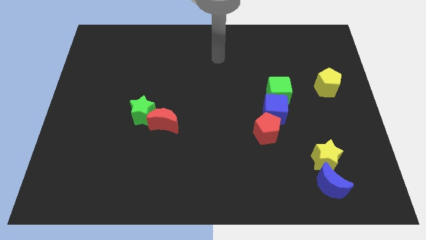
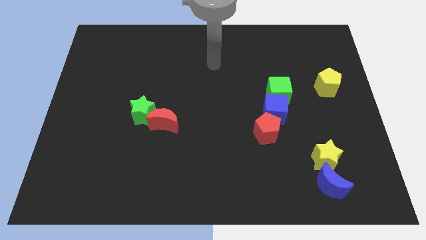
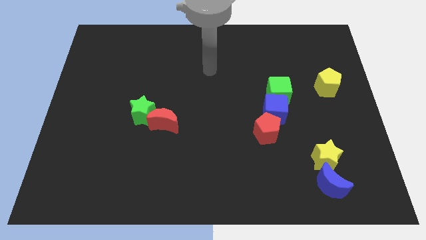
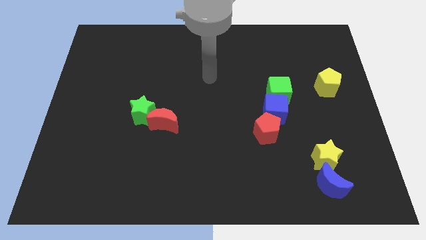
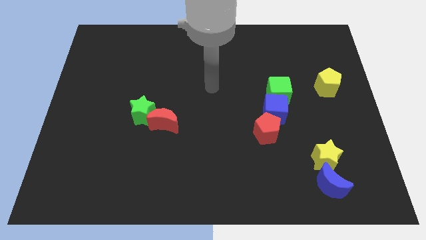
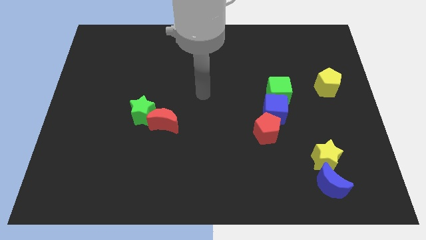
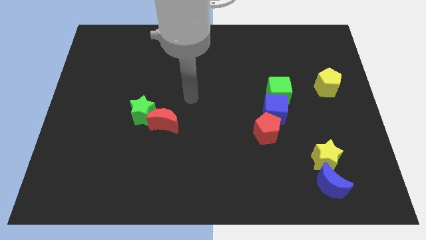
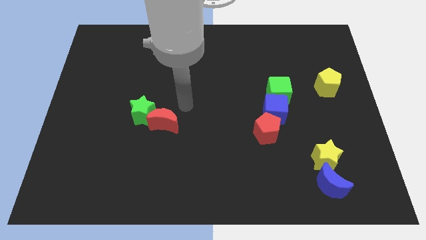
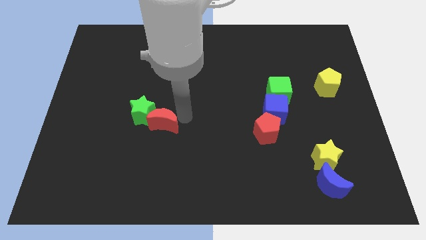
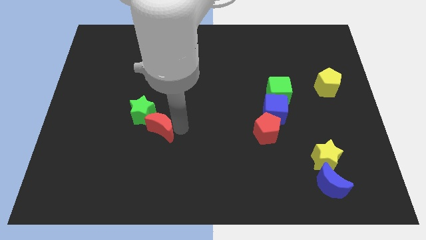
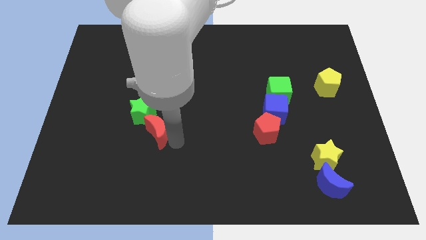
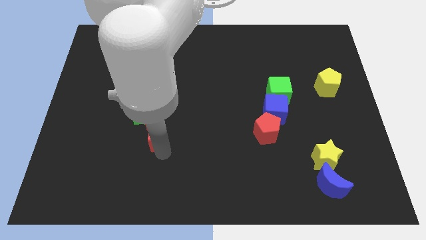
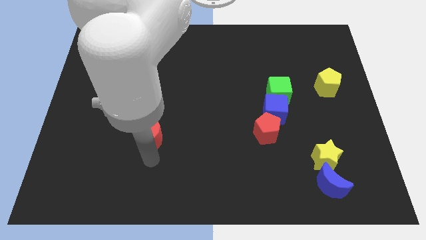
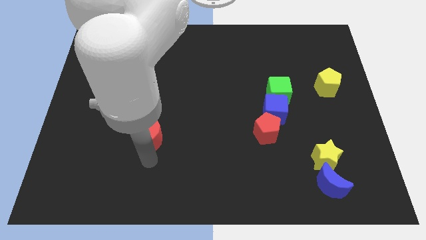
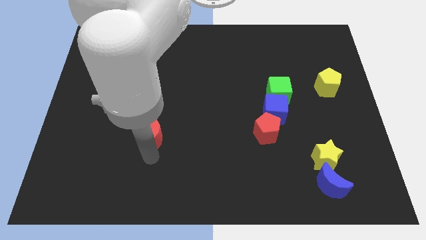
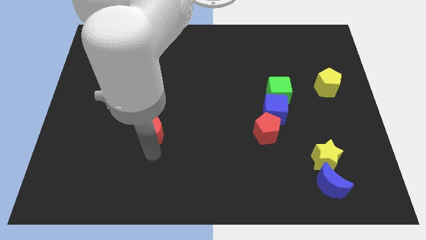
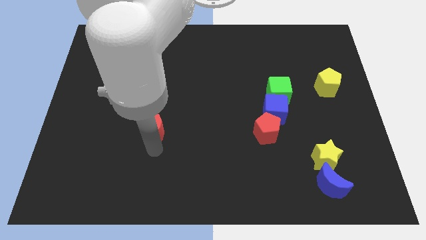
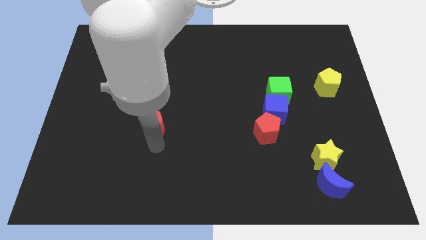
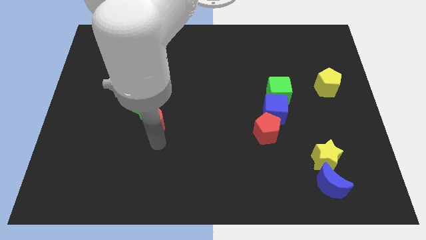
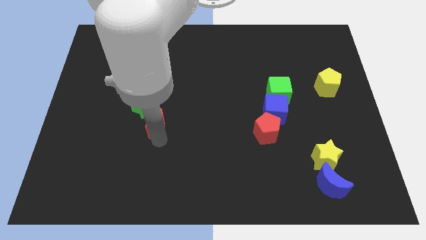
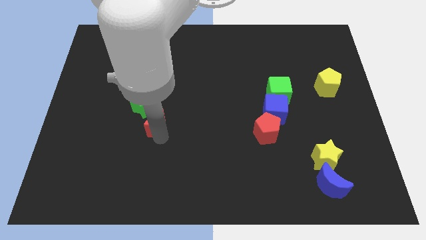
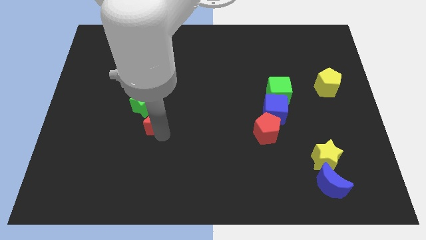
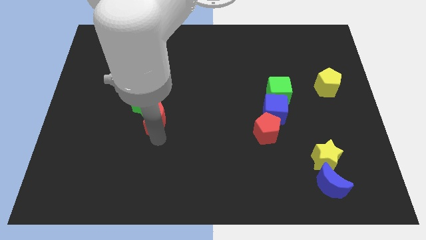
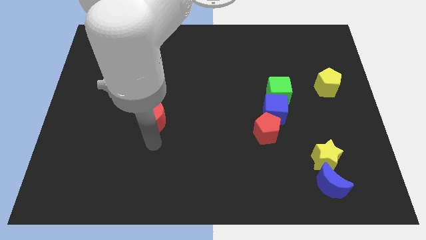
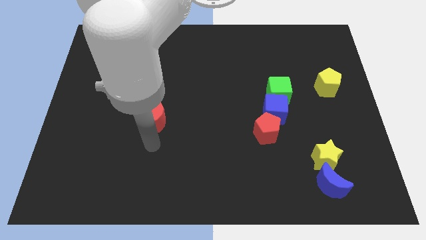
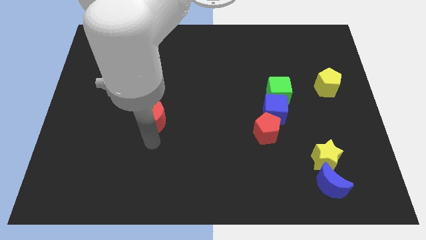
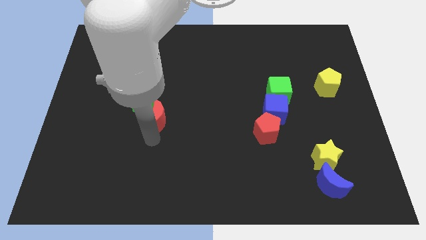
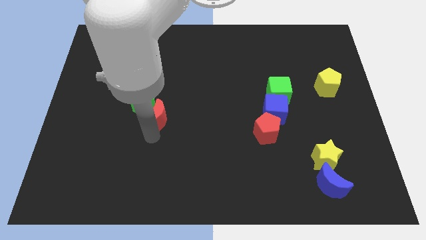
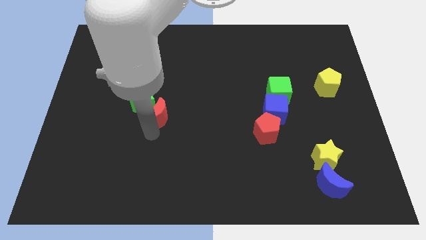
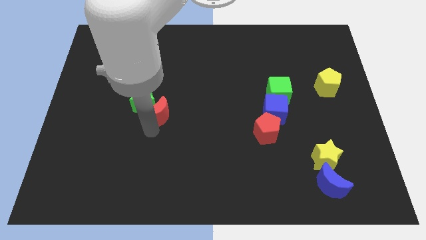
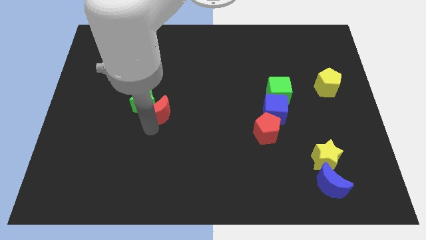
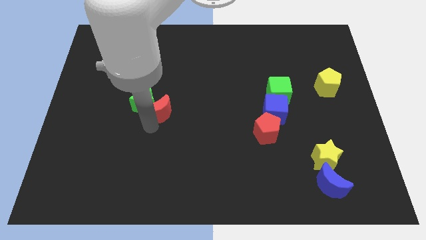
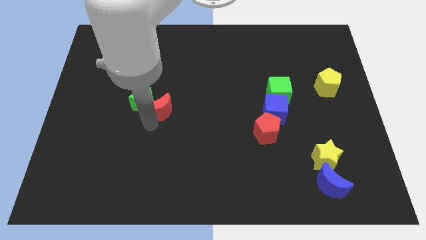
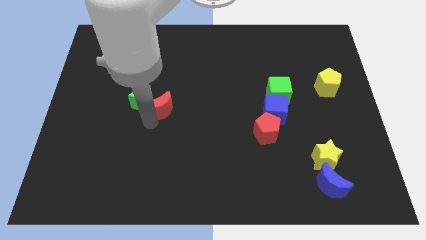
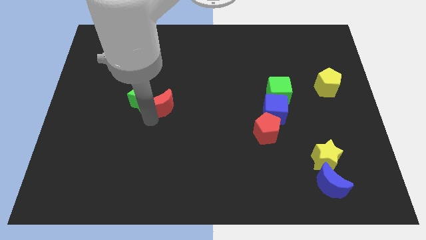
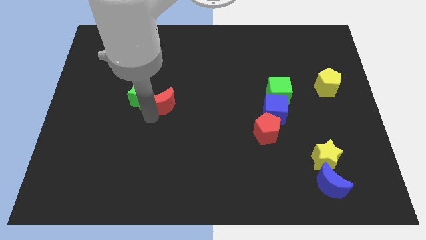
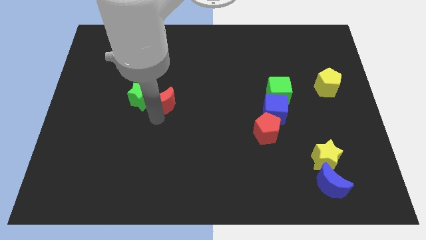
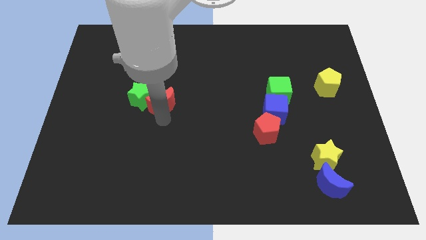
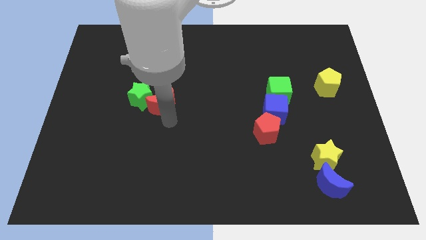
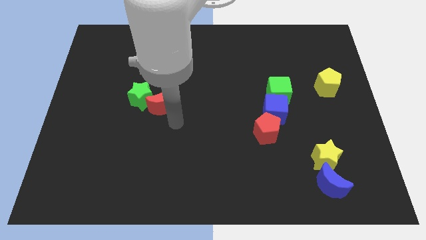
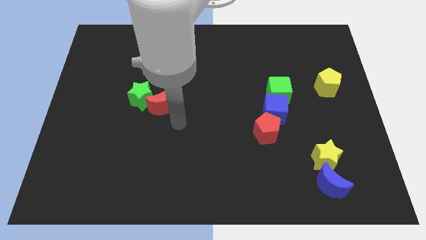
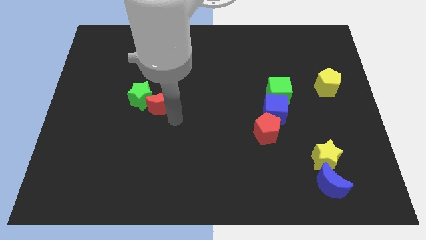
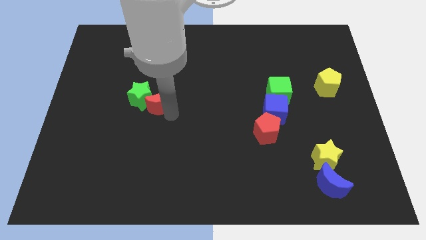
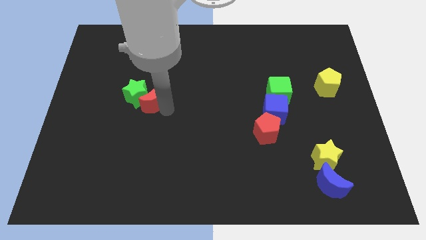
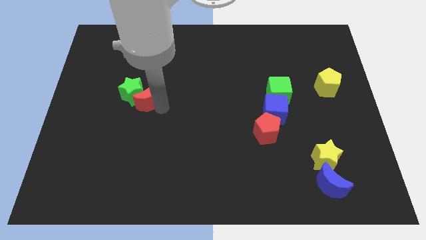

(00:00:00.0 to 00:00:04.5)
slide the red moon slightly diagonally upwards and to the left

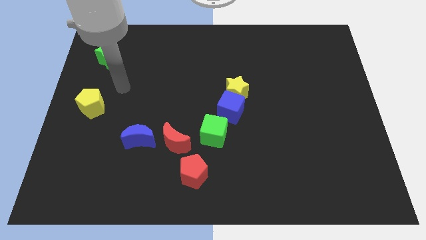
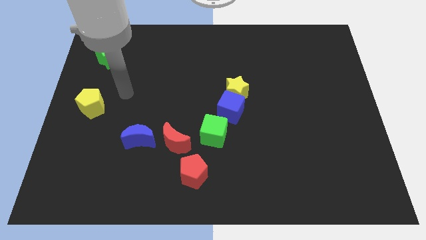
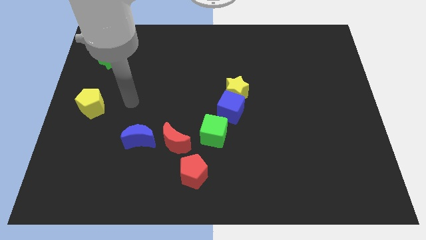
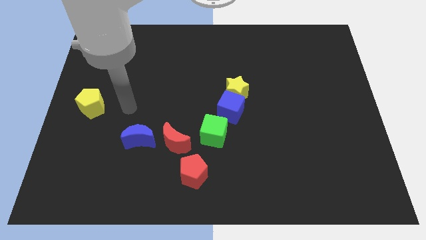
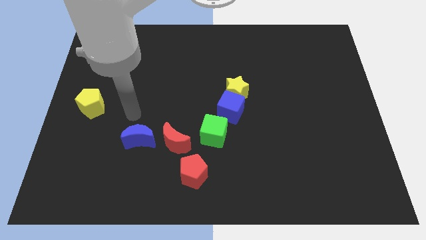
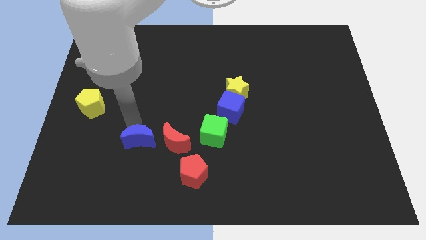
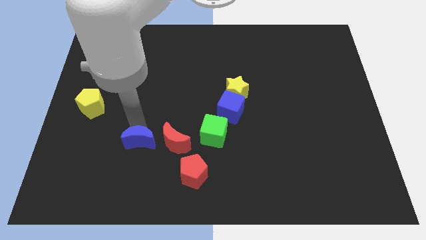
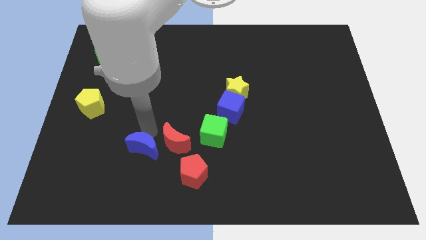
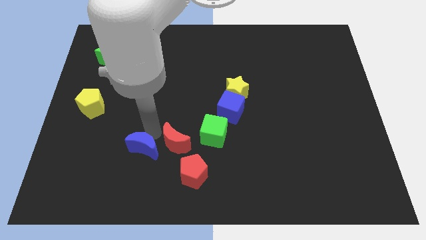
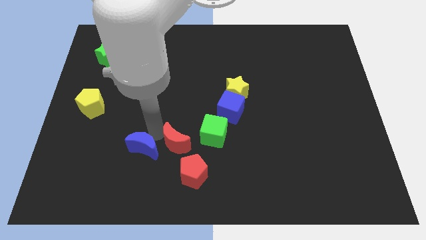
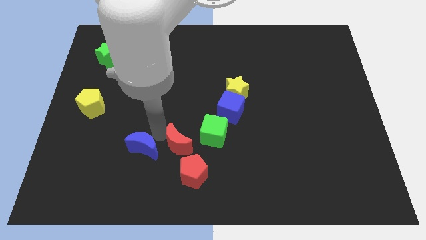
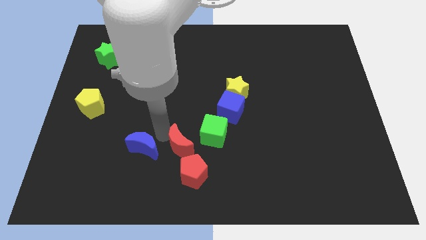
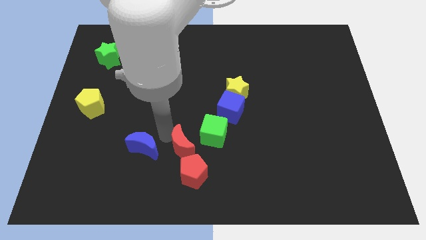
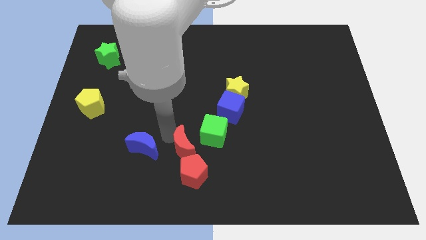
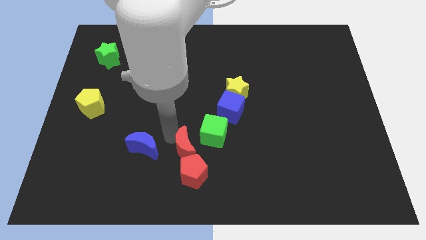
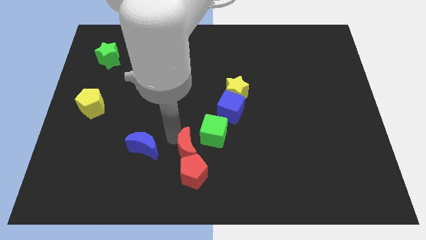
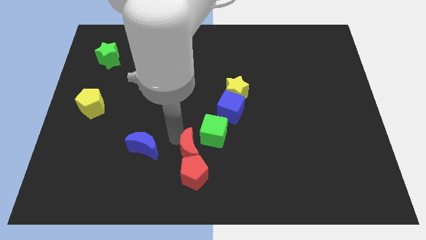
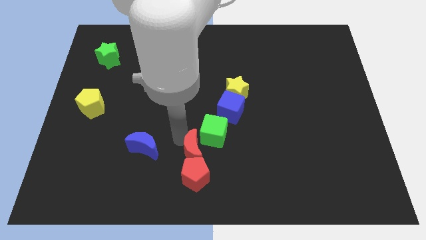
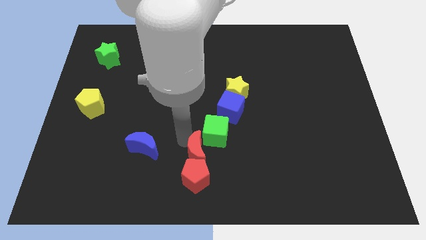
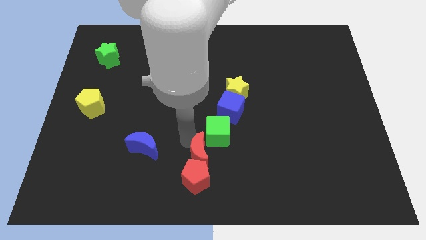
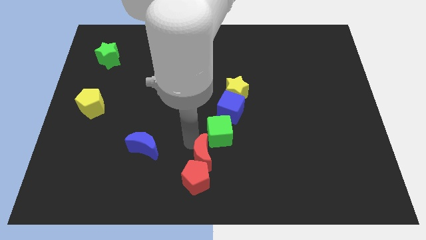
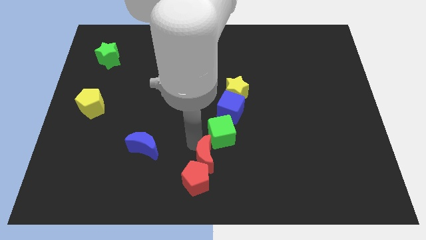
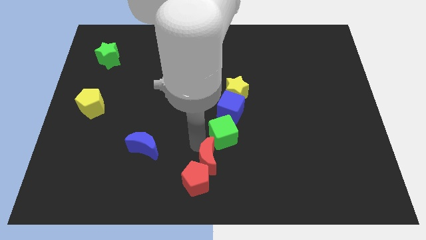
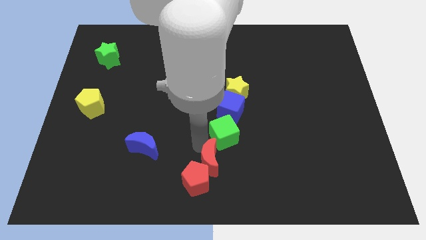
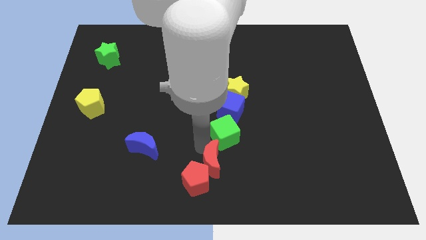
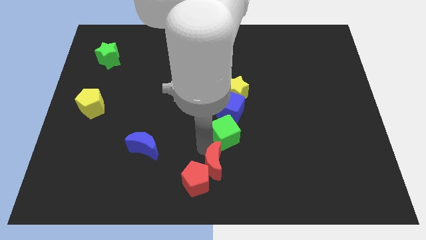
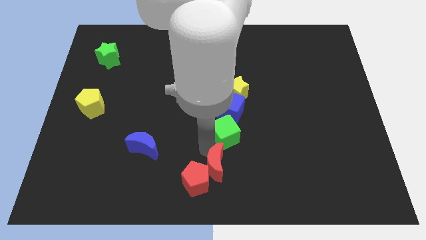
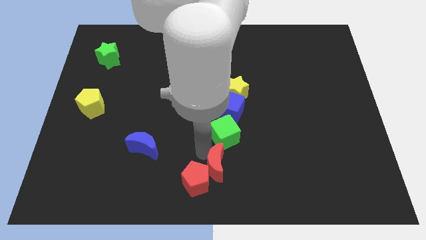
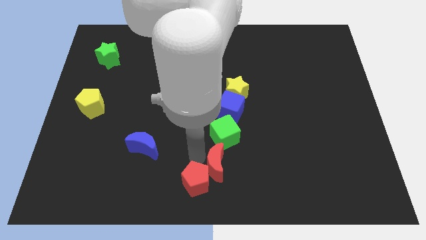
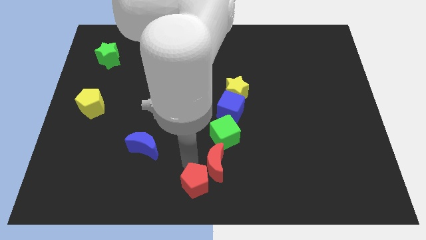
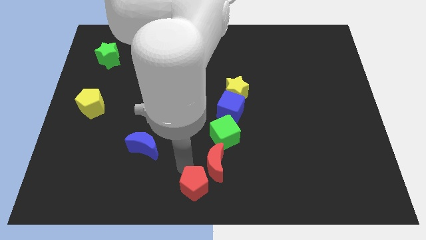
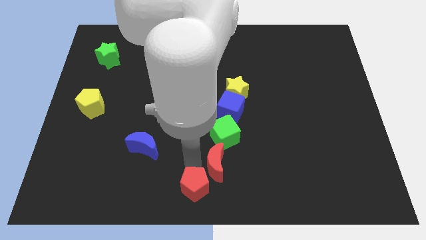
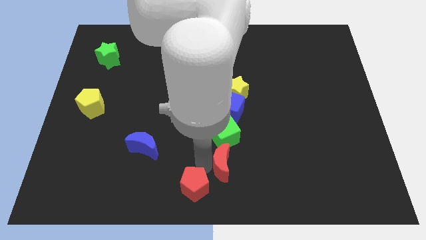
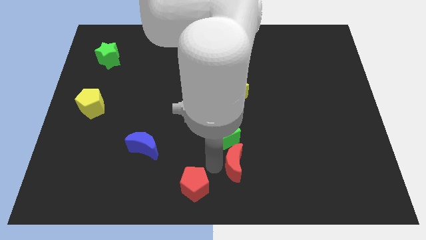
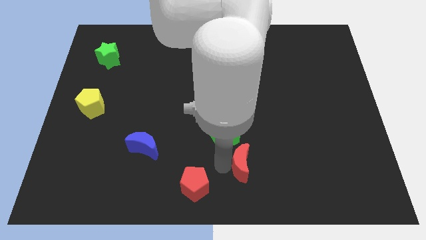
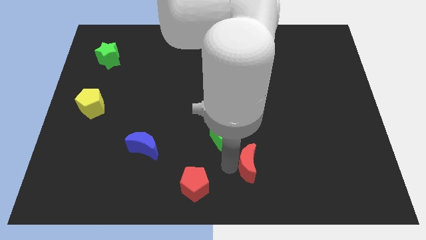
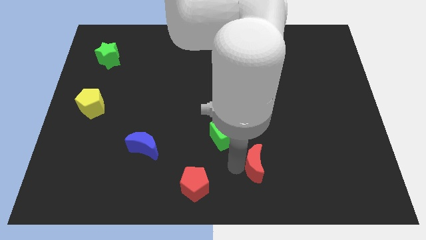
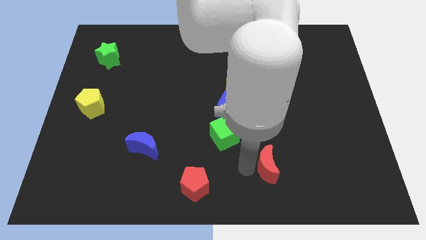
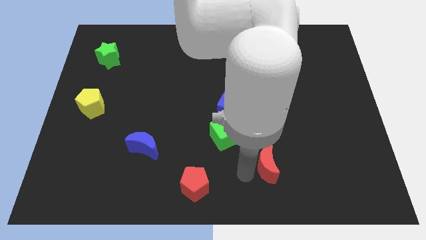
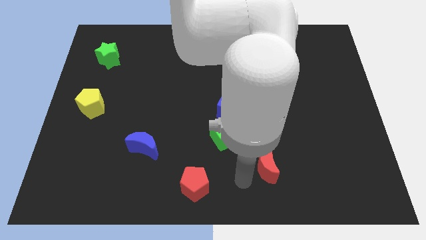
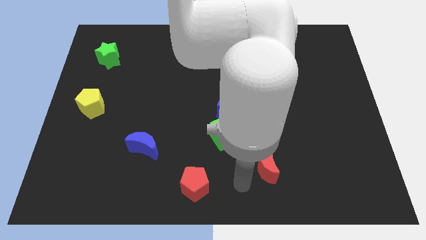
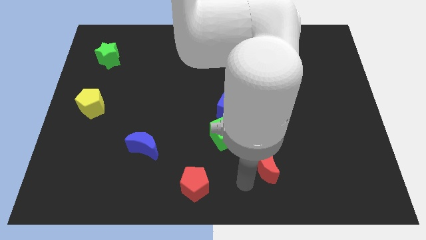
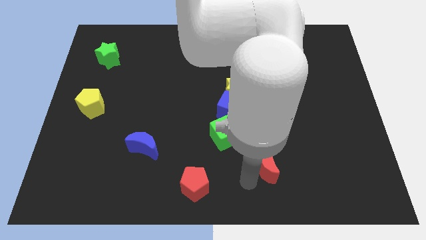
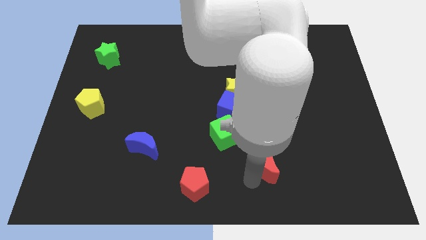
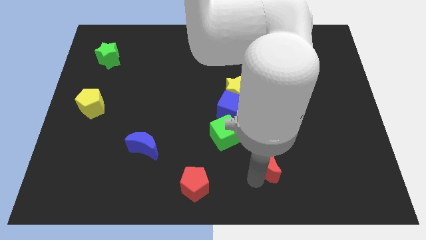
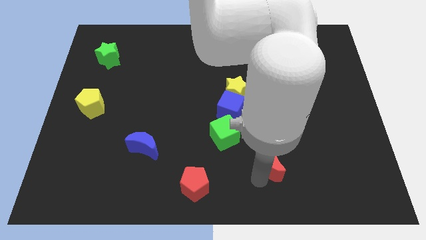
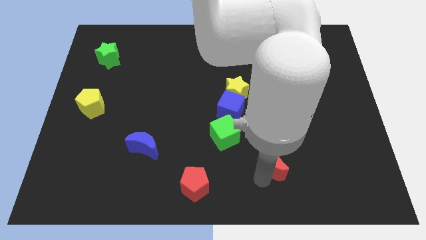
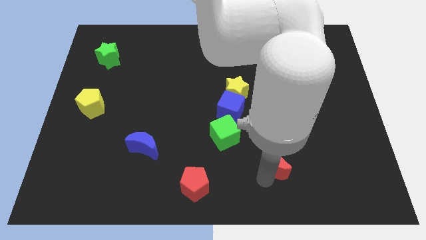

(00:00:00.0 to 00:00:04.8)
move the red moon to the right
